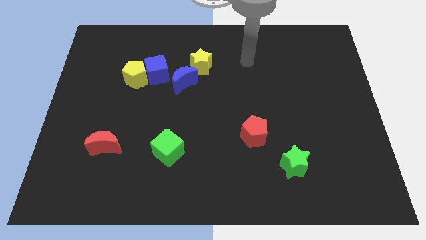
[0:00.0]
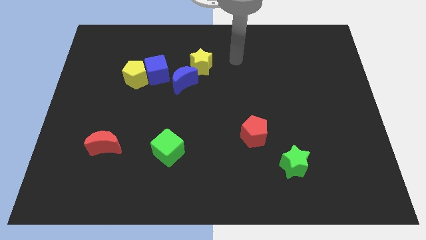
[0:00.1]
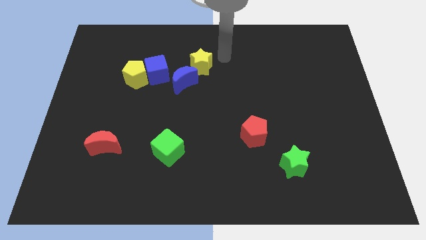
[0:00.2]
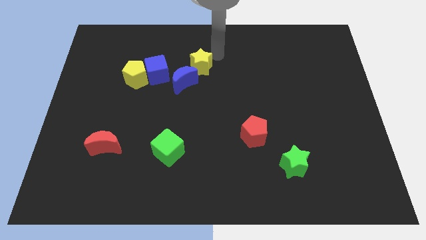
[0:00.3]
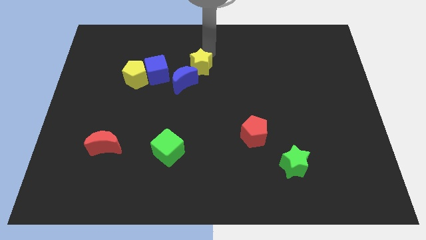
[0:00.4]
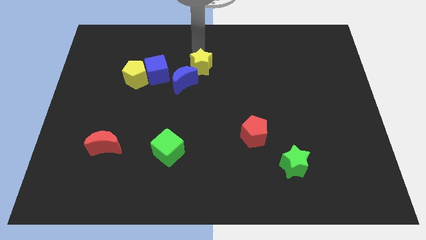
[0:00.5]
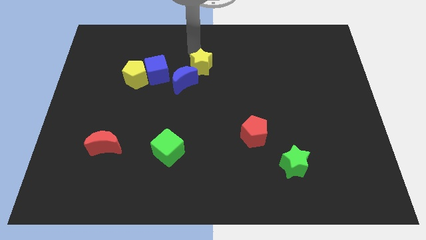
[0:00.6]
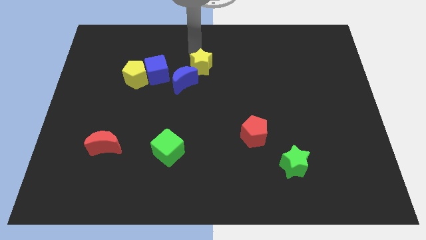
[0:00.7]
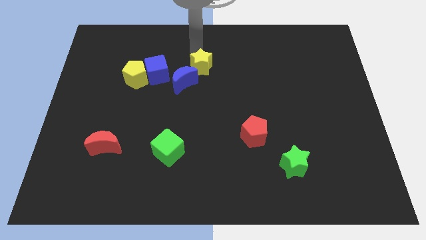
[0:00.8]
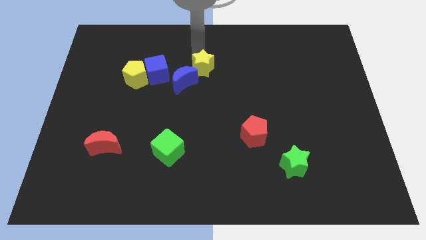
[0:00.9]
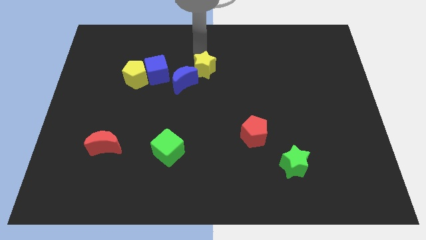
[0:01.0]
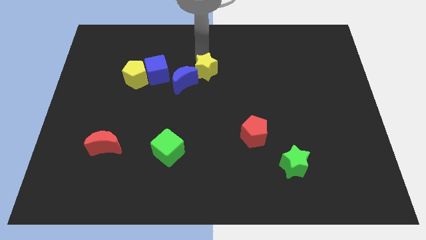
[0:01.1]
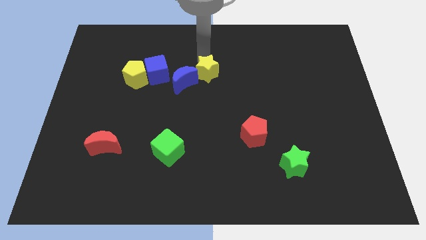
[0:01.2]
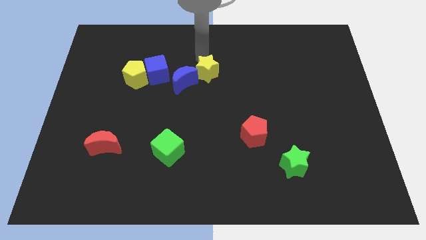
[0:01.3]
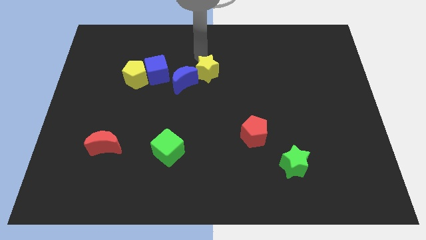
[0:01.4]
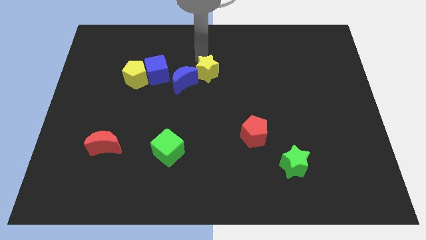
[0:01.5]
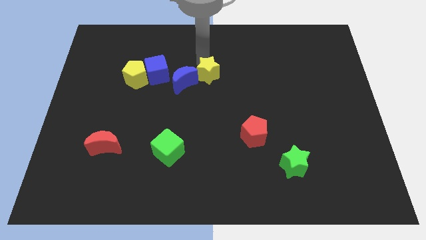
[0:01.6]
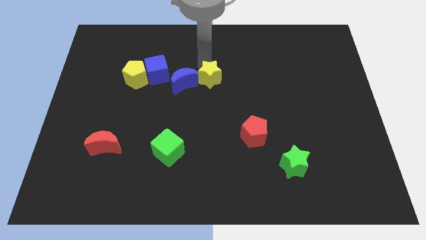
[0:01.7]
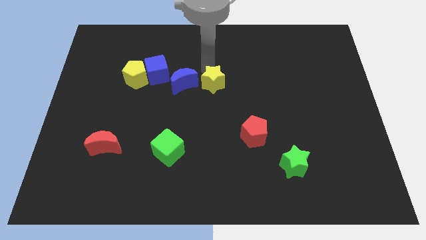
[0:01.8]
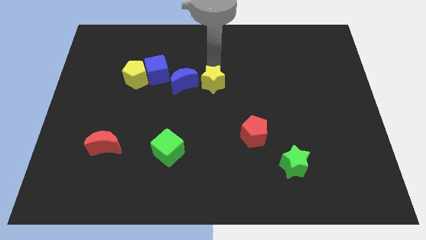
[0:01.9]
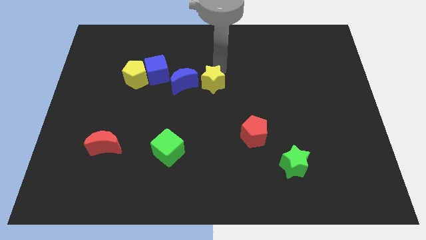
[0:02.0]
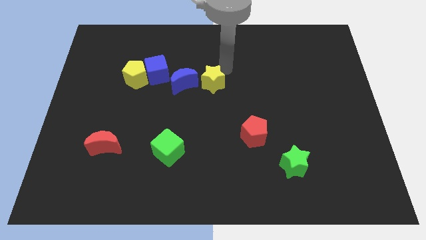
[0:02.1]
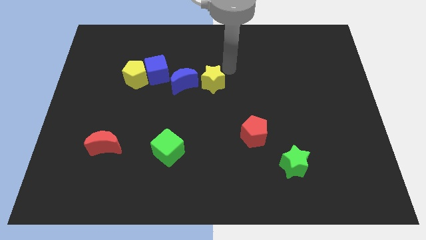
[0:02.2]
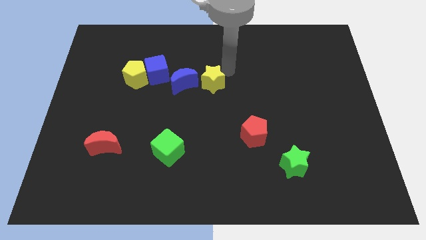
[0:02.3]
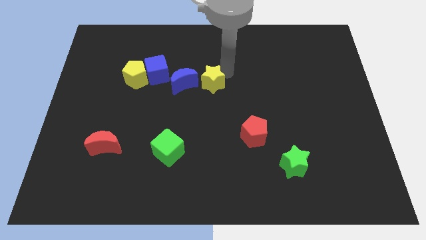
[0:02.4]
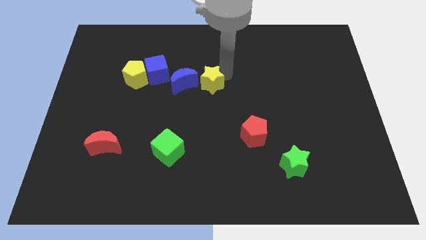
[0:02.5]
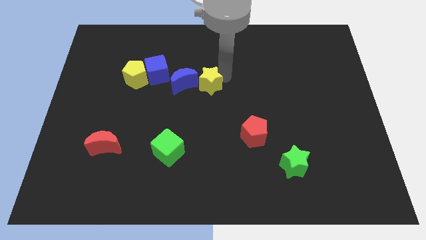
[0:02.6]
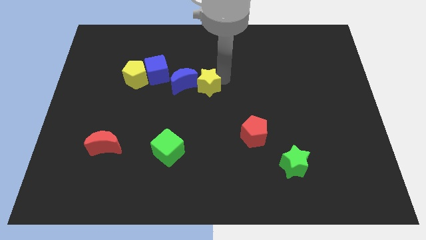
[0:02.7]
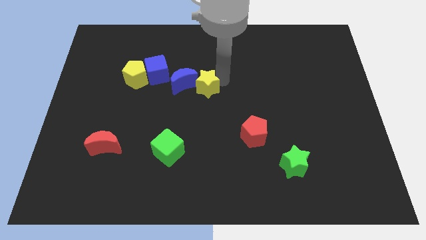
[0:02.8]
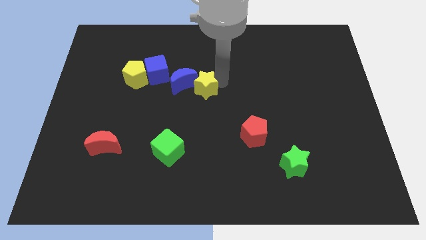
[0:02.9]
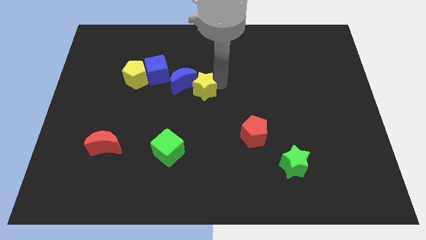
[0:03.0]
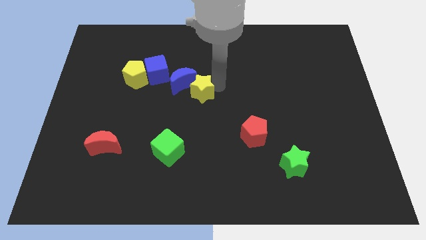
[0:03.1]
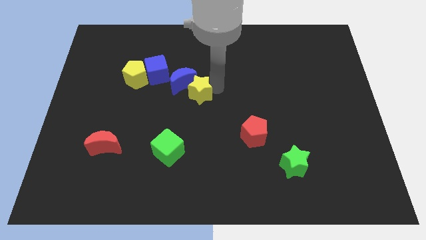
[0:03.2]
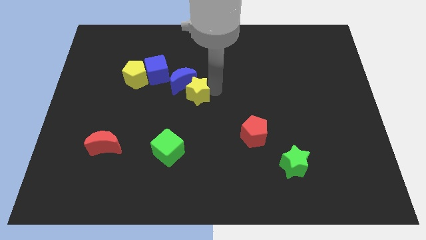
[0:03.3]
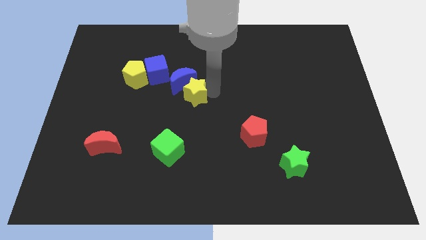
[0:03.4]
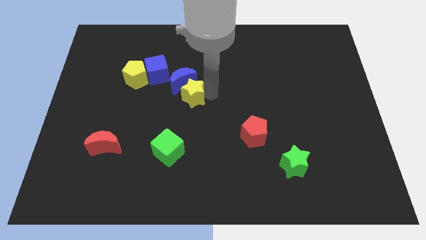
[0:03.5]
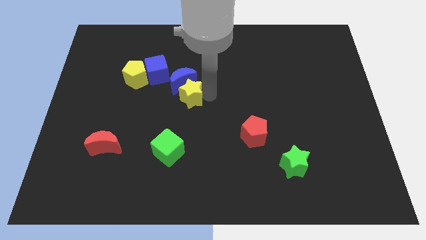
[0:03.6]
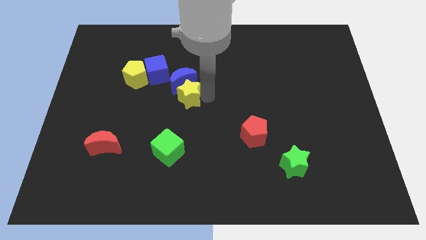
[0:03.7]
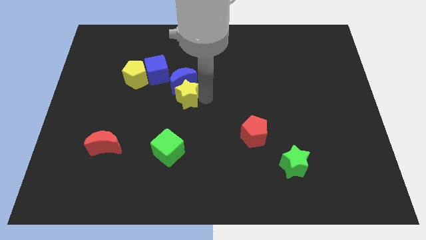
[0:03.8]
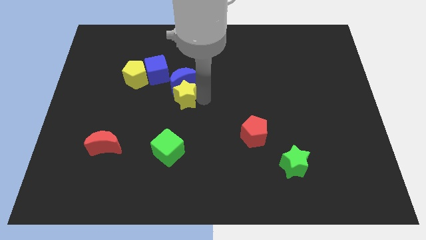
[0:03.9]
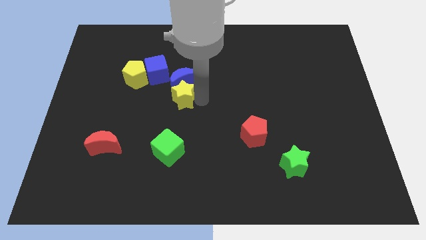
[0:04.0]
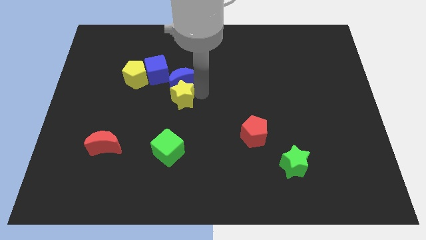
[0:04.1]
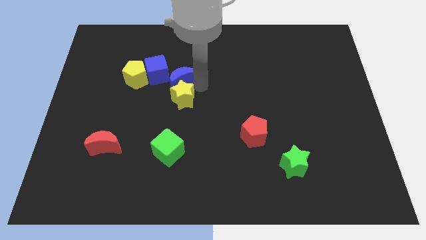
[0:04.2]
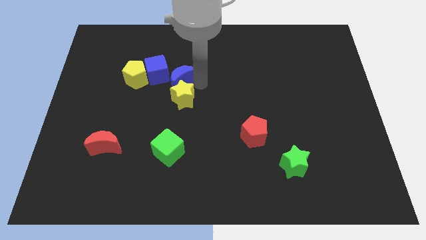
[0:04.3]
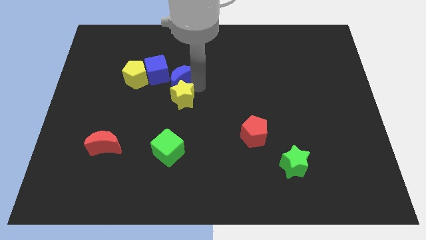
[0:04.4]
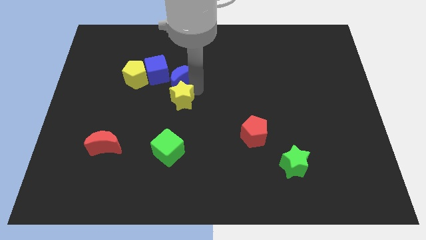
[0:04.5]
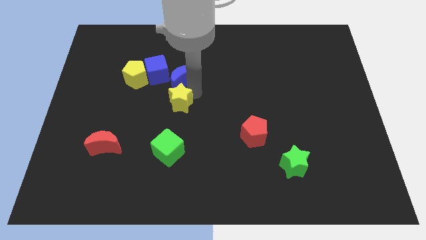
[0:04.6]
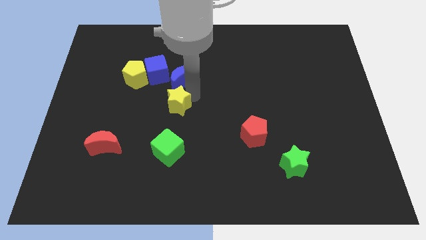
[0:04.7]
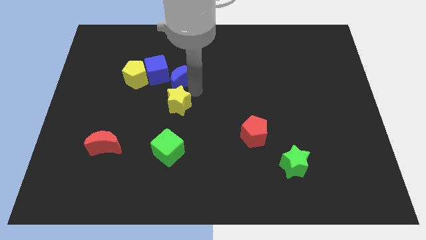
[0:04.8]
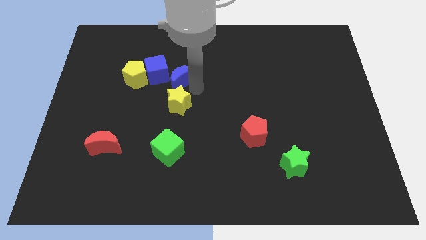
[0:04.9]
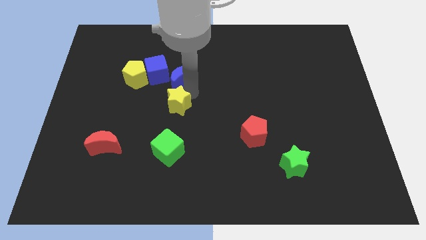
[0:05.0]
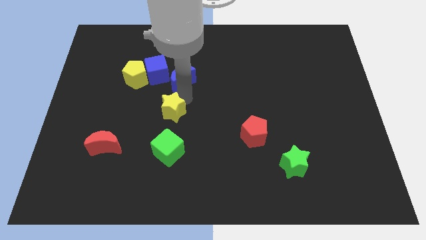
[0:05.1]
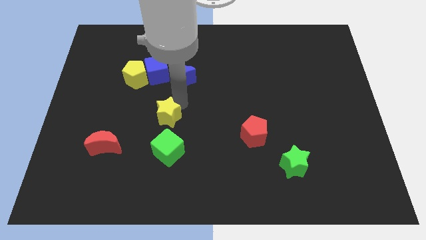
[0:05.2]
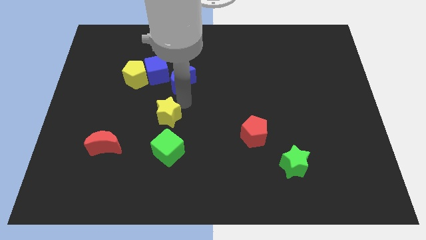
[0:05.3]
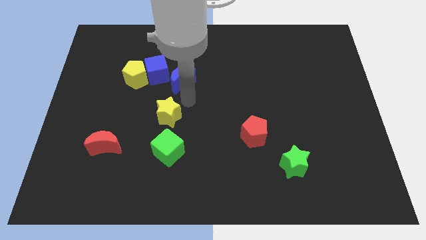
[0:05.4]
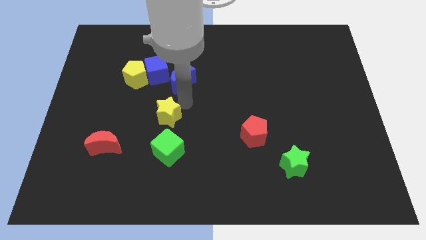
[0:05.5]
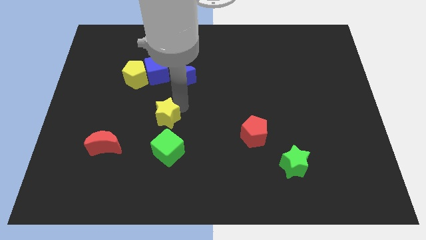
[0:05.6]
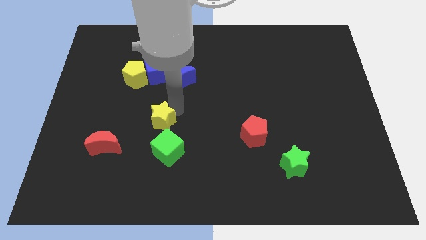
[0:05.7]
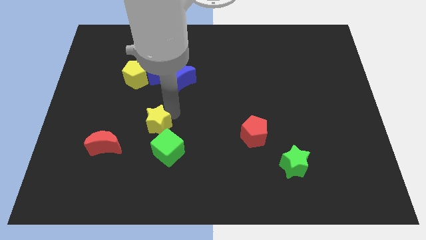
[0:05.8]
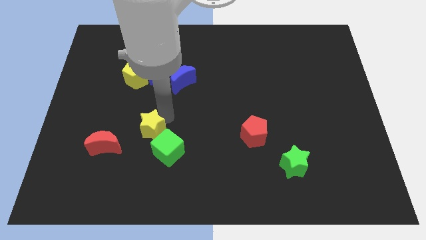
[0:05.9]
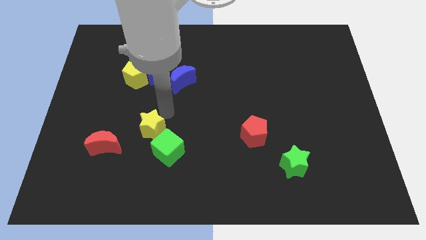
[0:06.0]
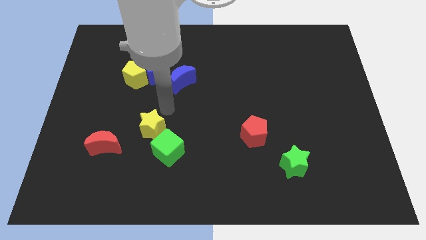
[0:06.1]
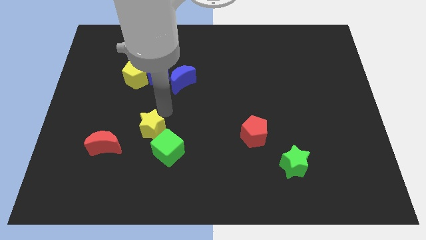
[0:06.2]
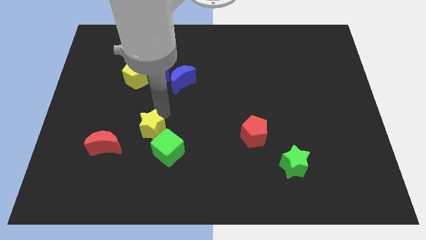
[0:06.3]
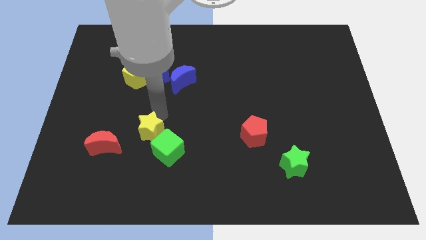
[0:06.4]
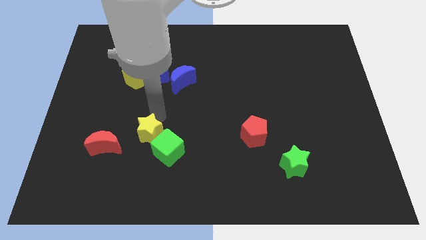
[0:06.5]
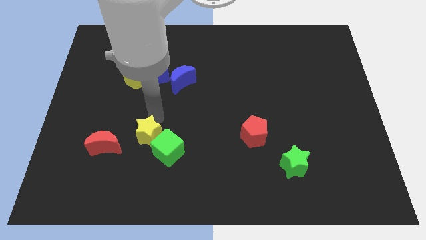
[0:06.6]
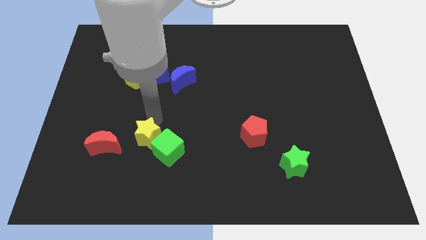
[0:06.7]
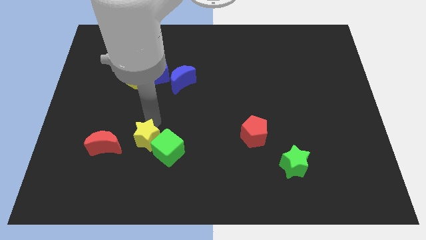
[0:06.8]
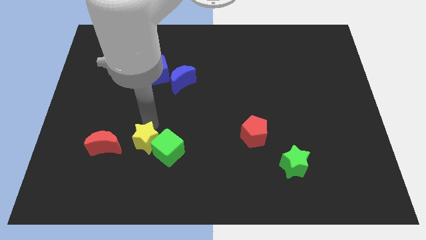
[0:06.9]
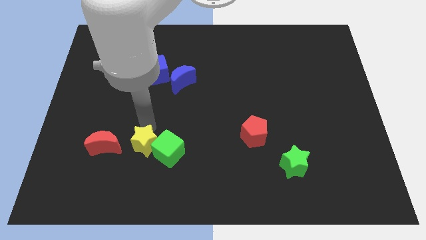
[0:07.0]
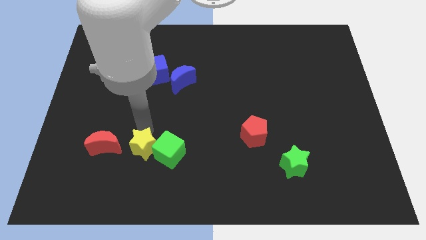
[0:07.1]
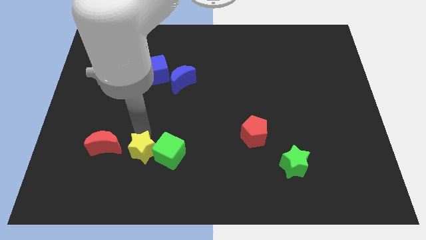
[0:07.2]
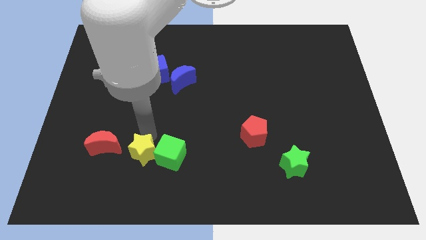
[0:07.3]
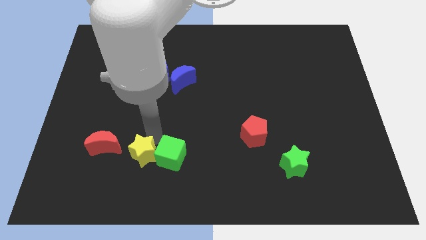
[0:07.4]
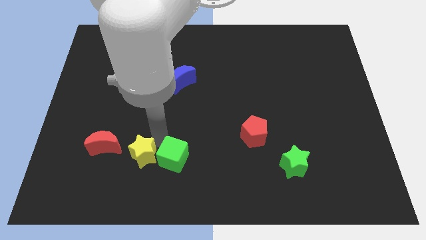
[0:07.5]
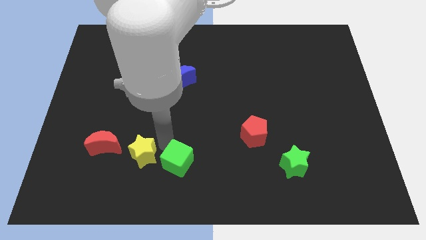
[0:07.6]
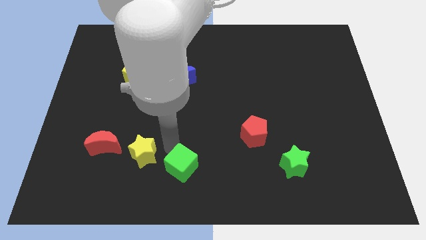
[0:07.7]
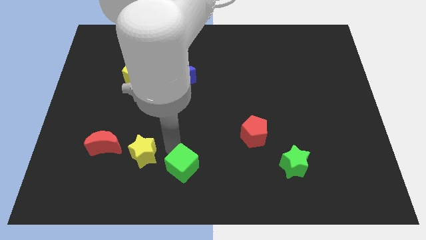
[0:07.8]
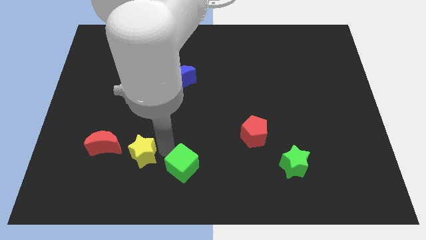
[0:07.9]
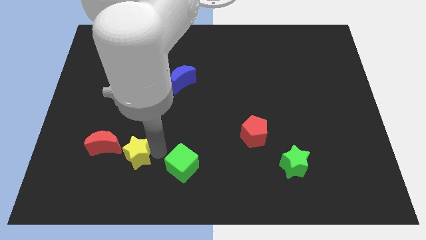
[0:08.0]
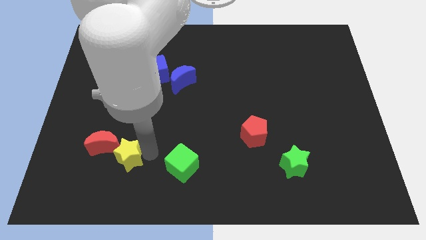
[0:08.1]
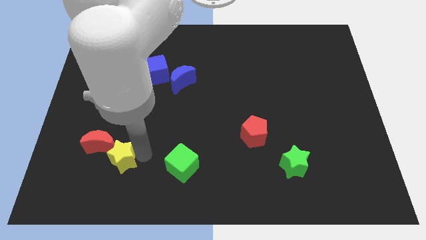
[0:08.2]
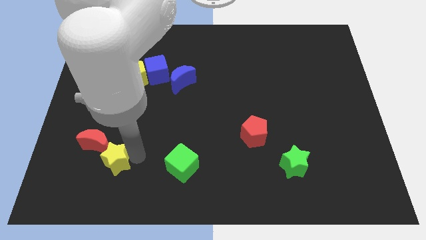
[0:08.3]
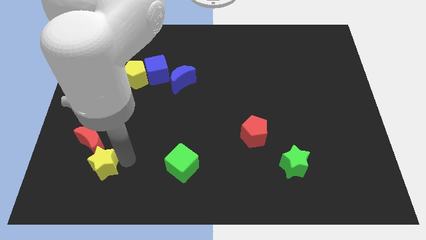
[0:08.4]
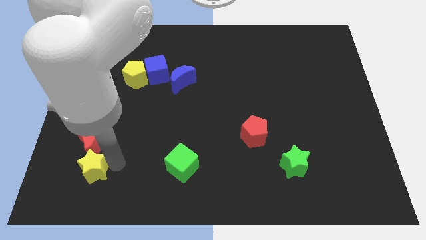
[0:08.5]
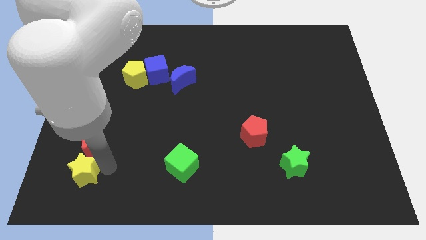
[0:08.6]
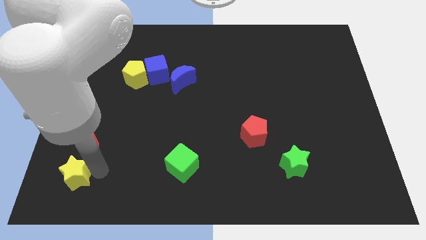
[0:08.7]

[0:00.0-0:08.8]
put the yellow star to the bottom left side of the red moon
